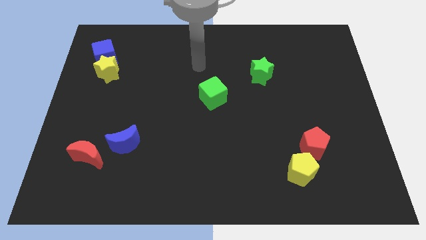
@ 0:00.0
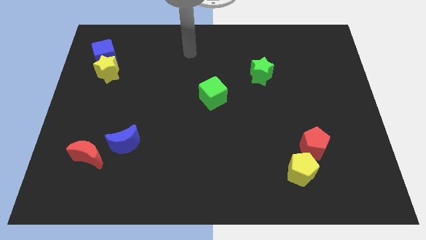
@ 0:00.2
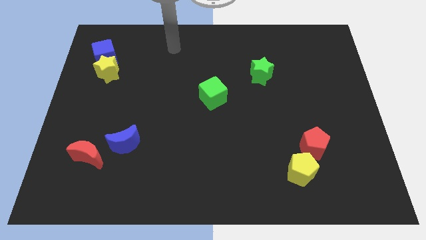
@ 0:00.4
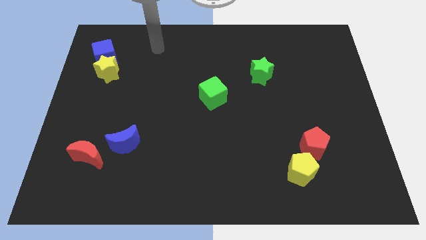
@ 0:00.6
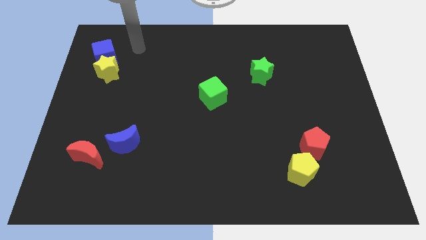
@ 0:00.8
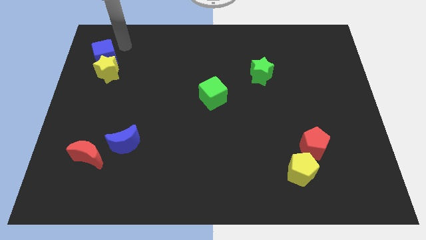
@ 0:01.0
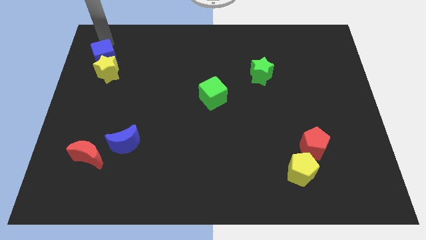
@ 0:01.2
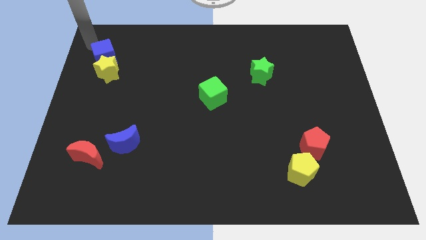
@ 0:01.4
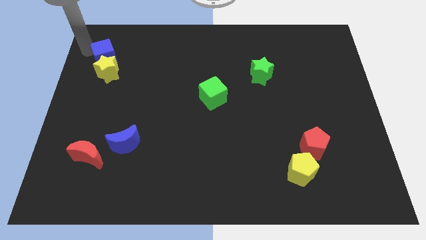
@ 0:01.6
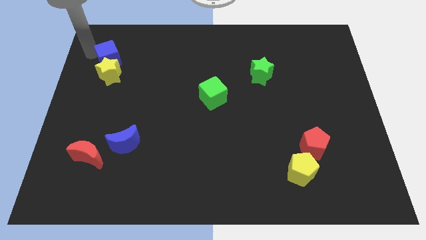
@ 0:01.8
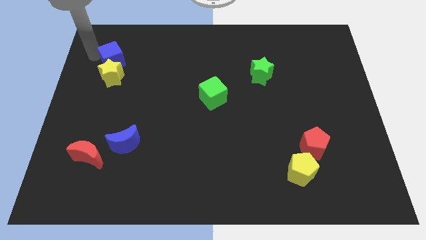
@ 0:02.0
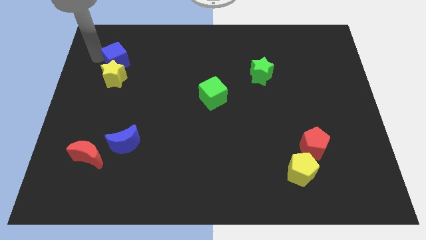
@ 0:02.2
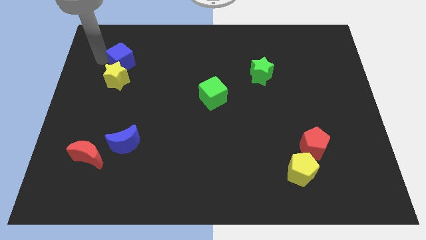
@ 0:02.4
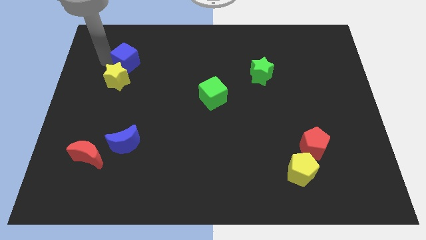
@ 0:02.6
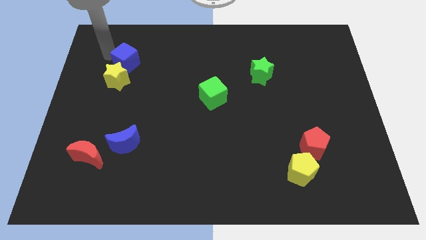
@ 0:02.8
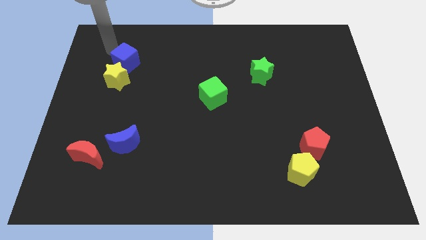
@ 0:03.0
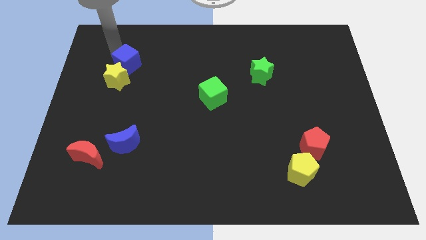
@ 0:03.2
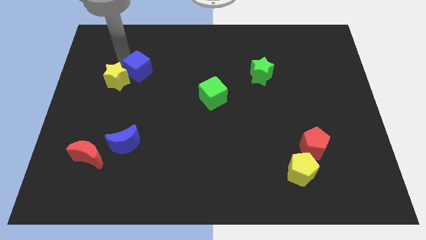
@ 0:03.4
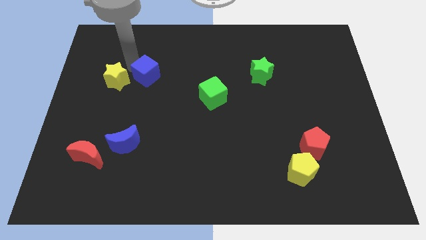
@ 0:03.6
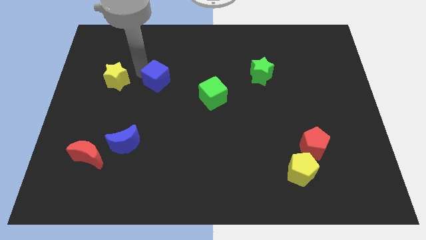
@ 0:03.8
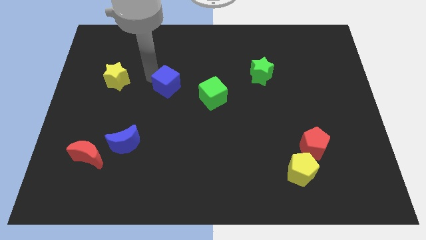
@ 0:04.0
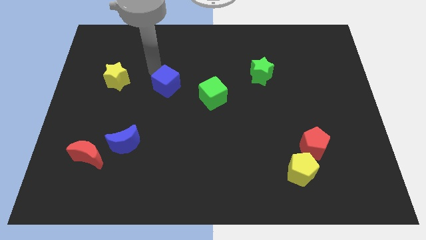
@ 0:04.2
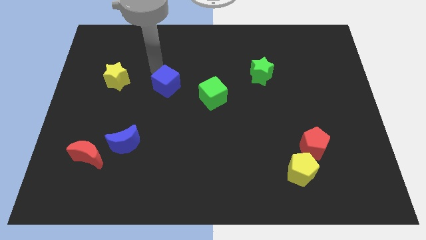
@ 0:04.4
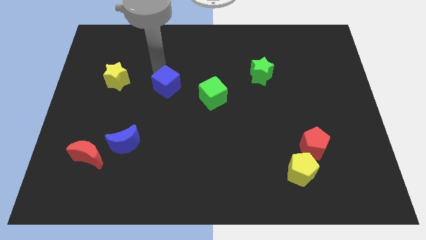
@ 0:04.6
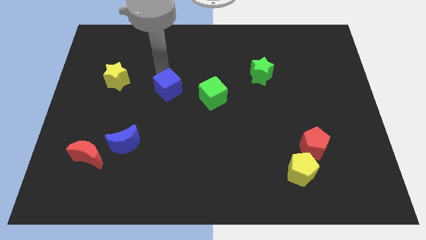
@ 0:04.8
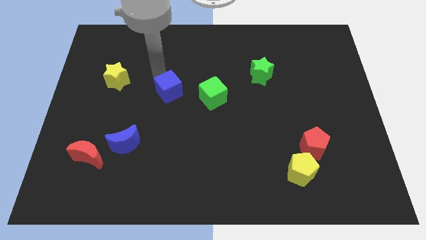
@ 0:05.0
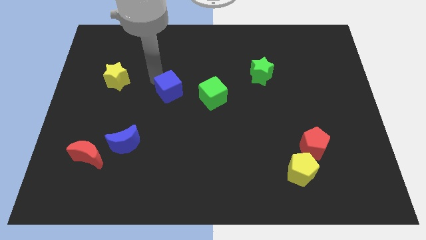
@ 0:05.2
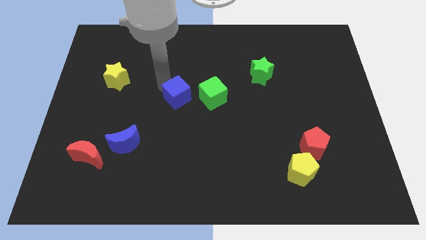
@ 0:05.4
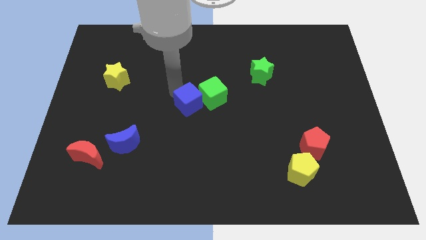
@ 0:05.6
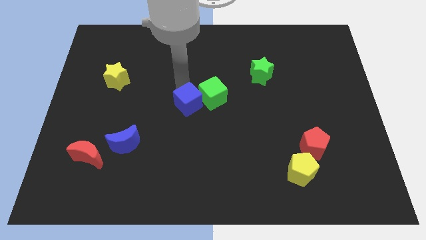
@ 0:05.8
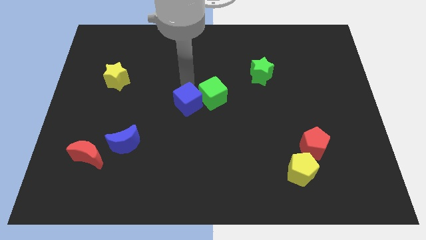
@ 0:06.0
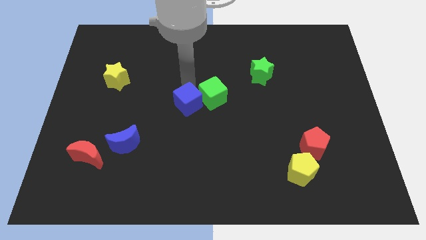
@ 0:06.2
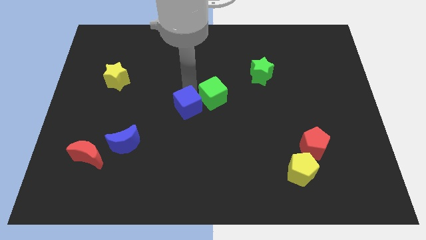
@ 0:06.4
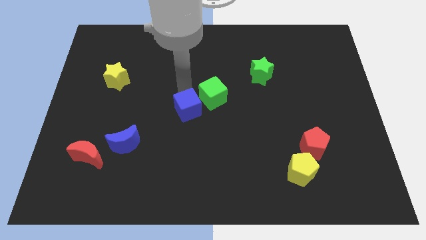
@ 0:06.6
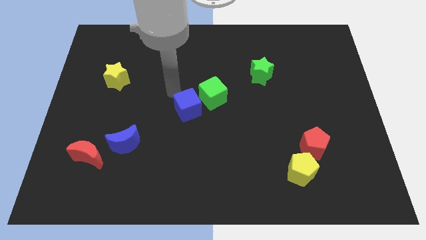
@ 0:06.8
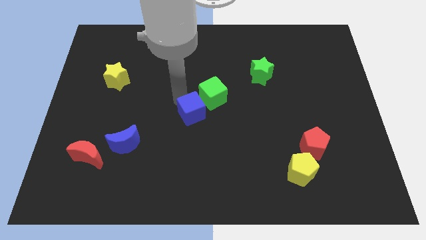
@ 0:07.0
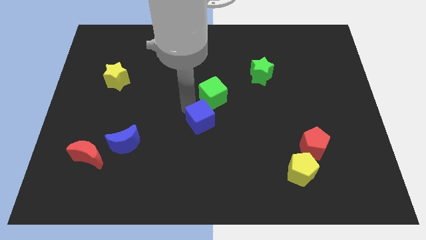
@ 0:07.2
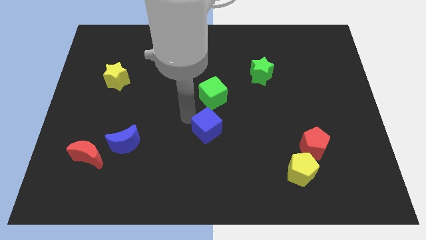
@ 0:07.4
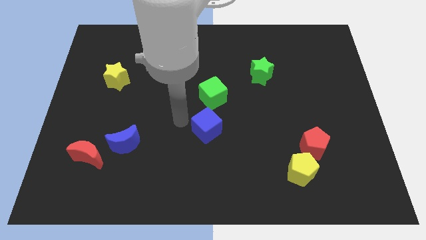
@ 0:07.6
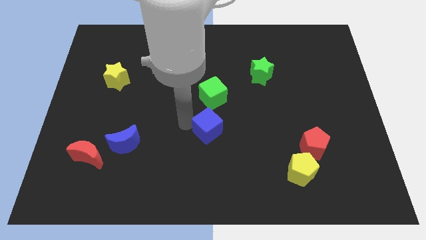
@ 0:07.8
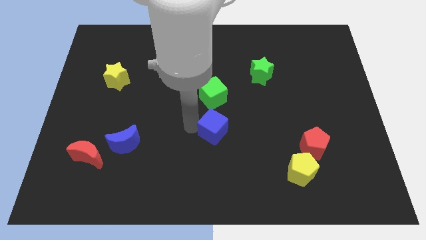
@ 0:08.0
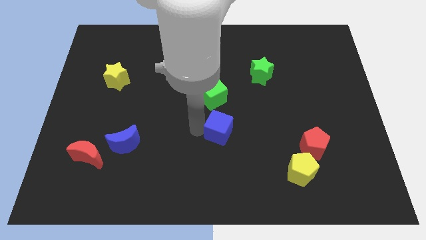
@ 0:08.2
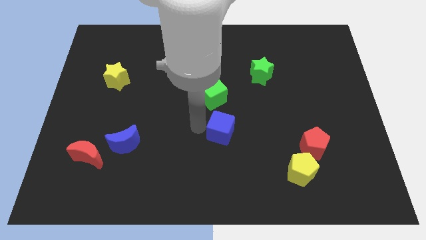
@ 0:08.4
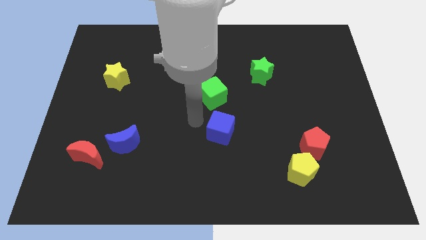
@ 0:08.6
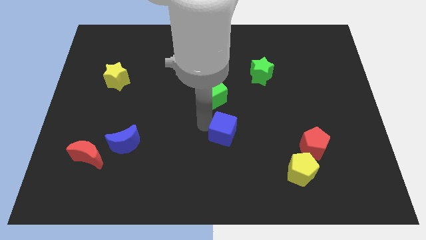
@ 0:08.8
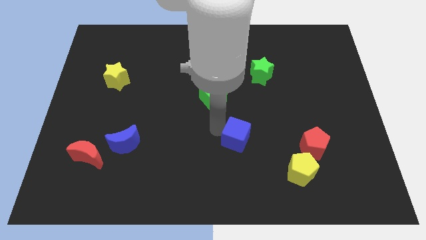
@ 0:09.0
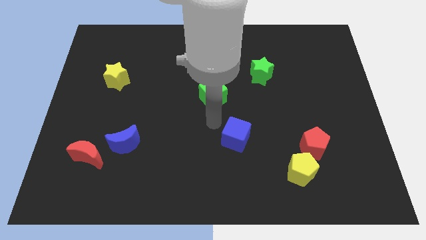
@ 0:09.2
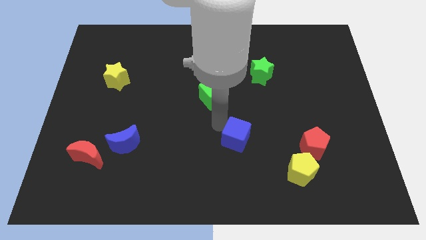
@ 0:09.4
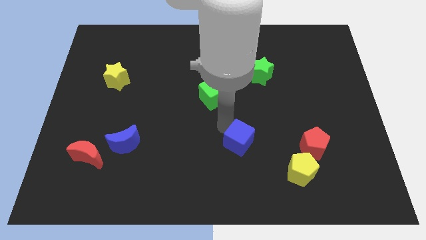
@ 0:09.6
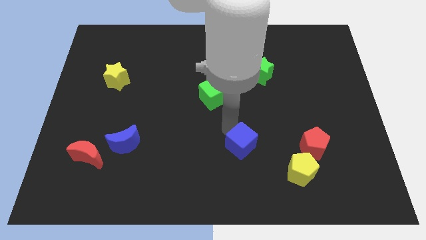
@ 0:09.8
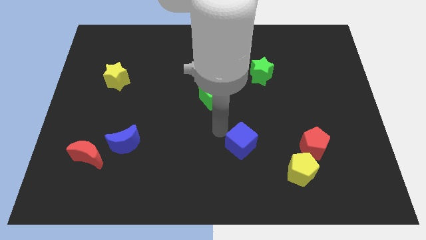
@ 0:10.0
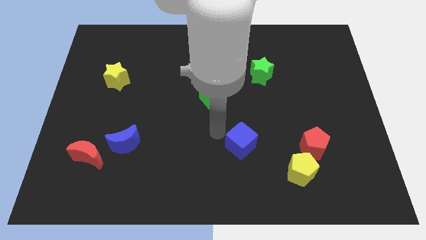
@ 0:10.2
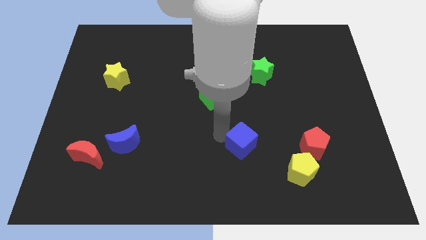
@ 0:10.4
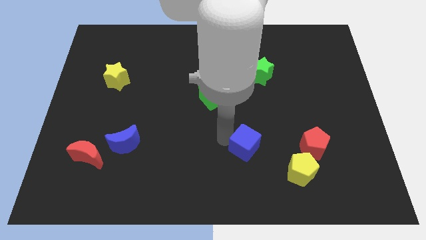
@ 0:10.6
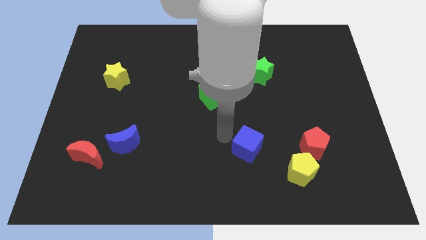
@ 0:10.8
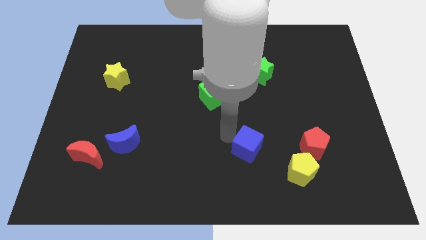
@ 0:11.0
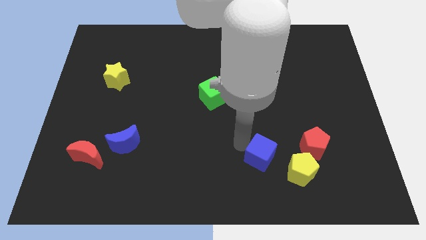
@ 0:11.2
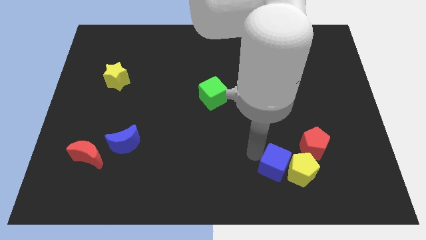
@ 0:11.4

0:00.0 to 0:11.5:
move the blue cube close to the yellow pentagon

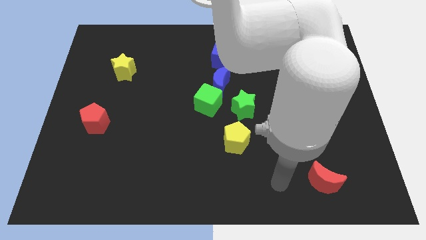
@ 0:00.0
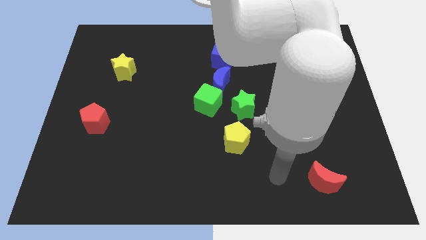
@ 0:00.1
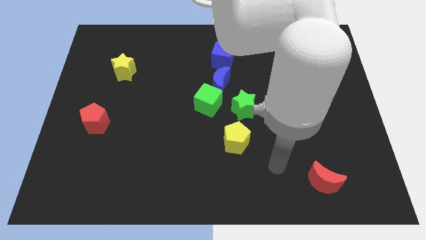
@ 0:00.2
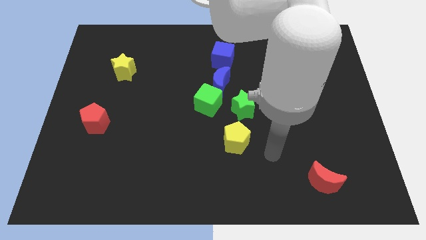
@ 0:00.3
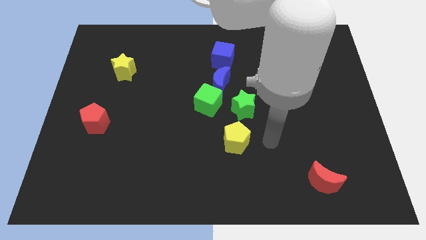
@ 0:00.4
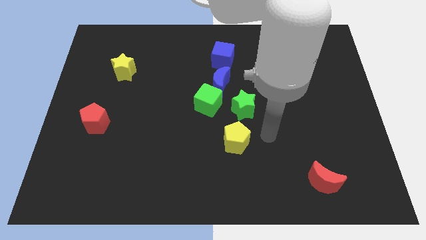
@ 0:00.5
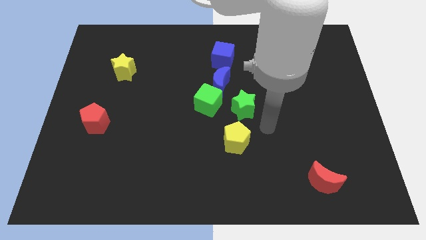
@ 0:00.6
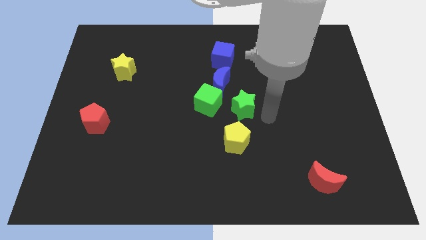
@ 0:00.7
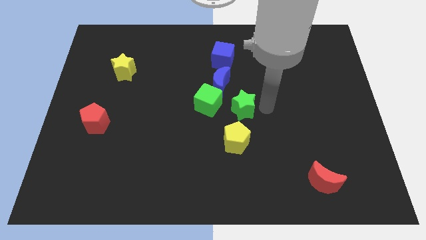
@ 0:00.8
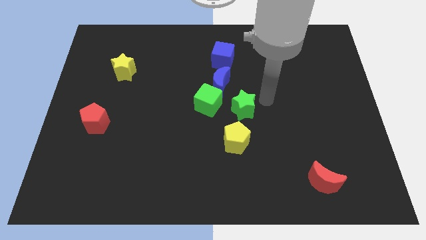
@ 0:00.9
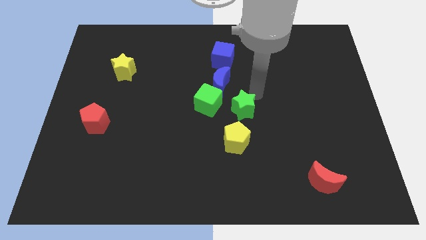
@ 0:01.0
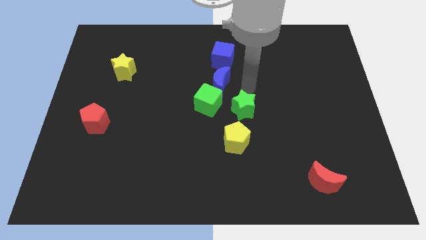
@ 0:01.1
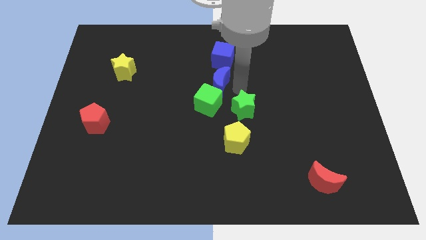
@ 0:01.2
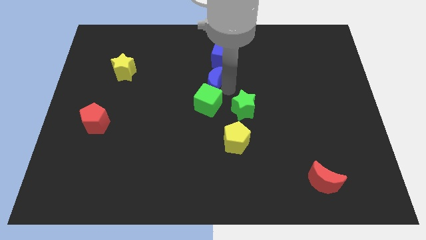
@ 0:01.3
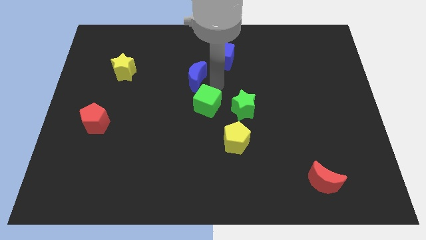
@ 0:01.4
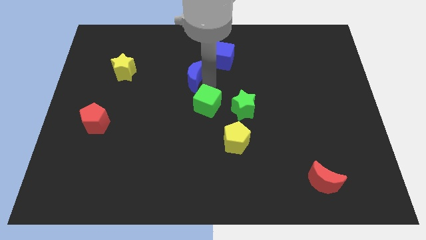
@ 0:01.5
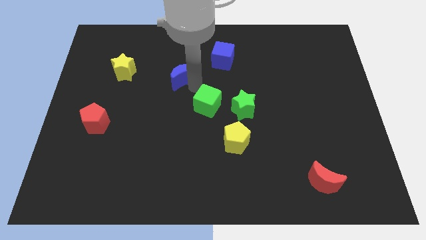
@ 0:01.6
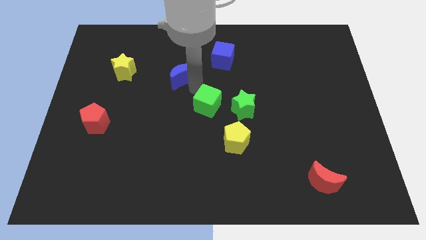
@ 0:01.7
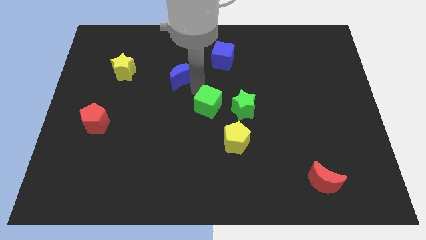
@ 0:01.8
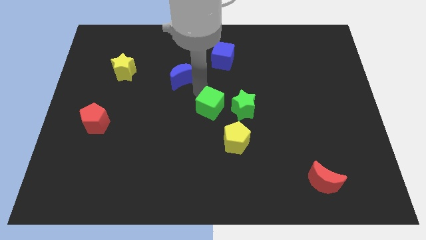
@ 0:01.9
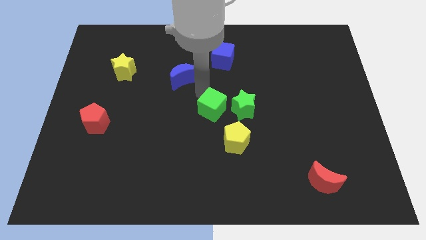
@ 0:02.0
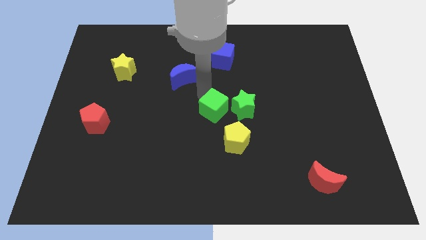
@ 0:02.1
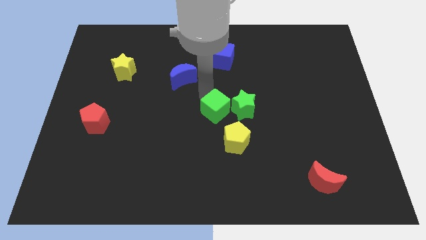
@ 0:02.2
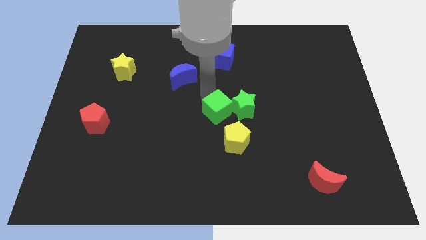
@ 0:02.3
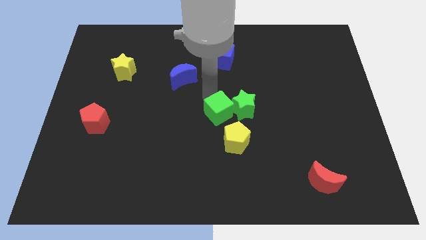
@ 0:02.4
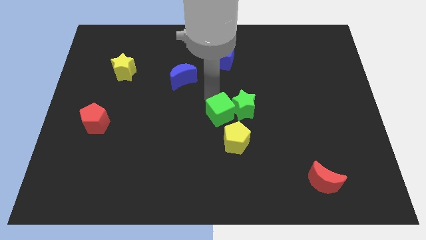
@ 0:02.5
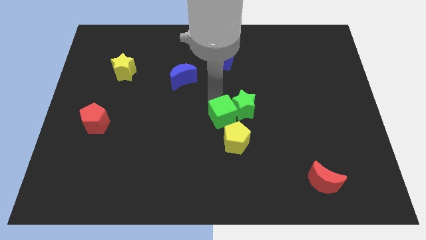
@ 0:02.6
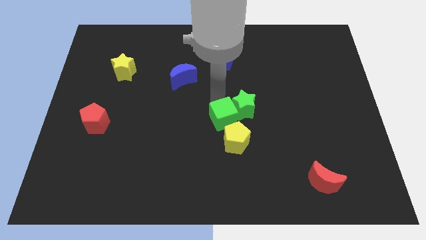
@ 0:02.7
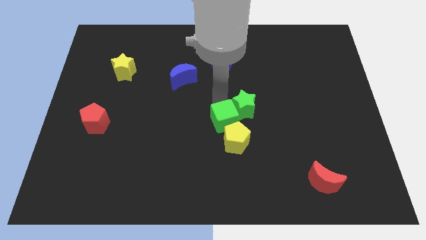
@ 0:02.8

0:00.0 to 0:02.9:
push the green cube next to the yellow pentagon
